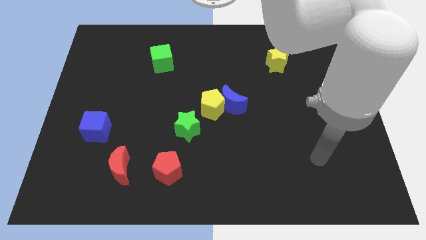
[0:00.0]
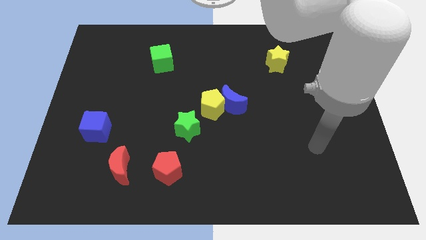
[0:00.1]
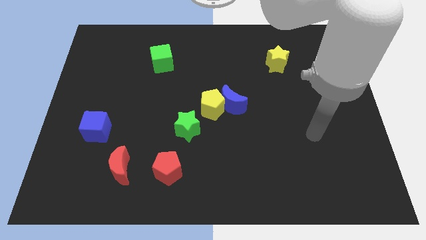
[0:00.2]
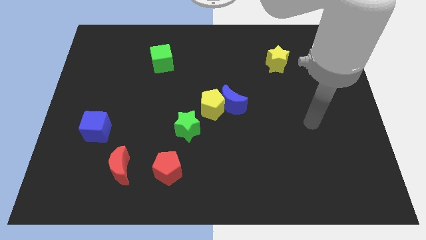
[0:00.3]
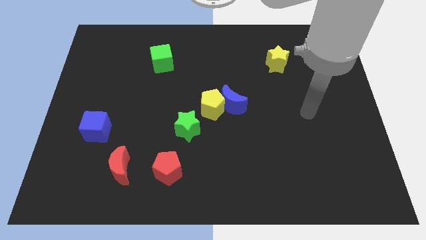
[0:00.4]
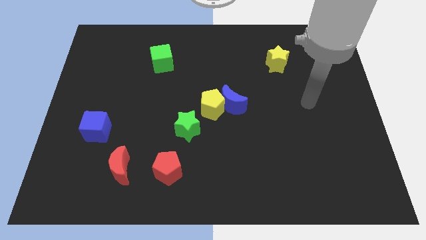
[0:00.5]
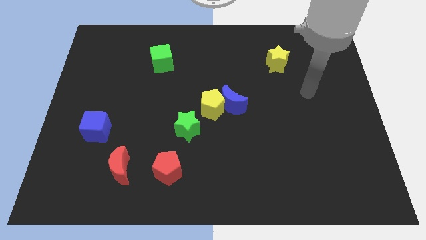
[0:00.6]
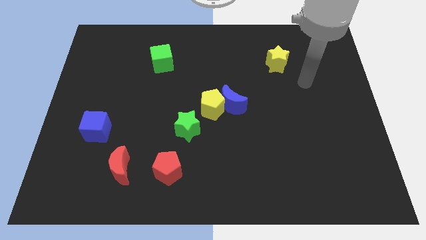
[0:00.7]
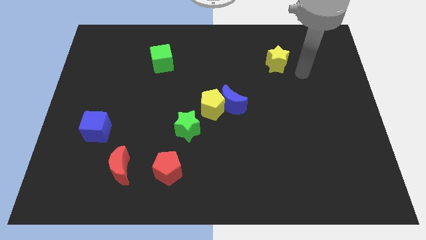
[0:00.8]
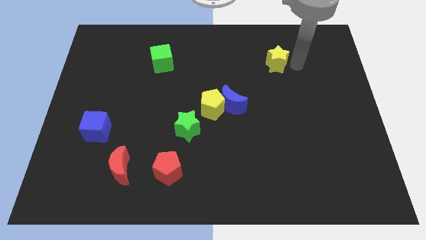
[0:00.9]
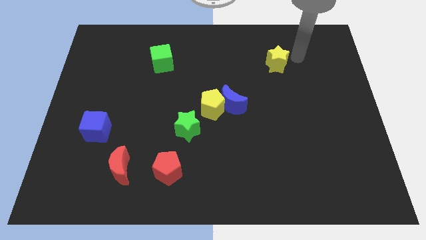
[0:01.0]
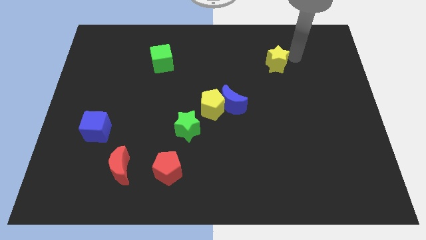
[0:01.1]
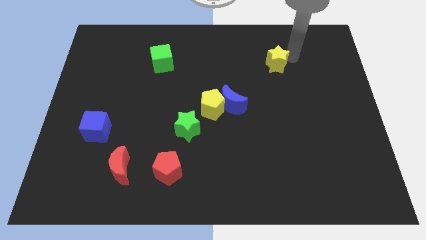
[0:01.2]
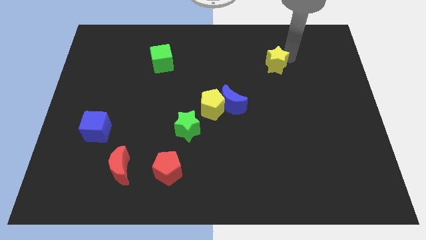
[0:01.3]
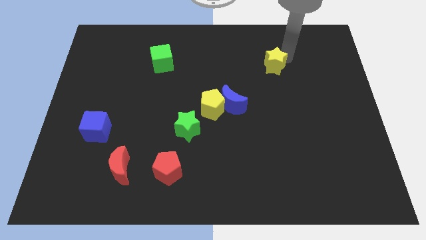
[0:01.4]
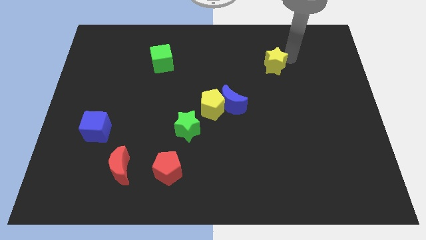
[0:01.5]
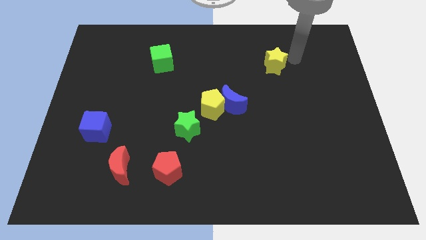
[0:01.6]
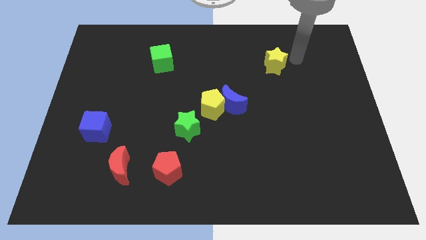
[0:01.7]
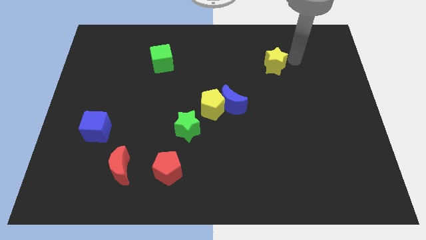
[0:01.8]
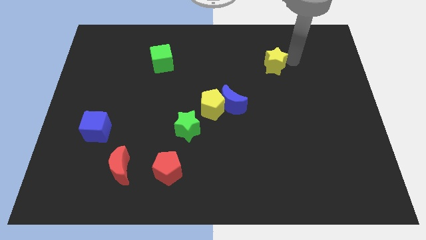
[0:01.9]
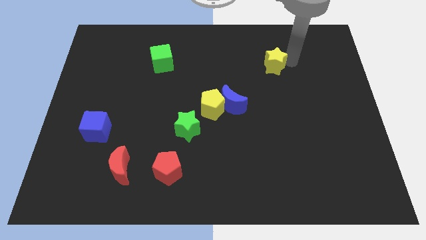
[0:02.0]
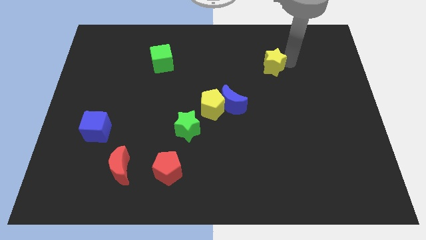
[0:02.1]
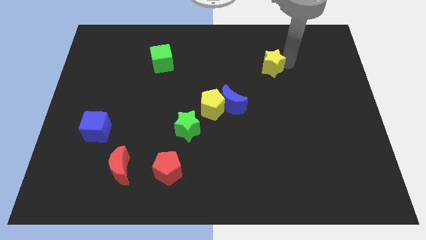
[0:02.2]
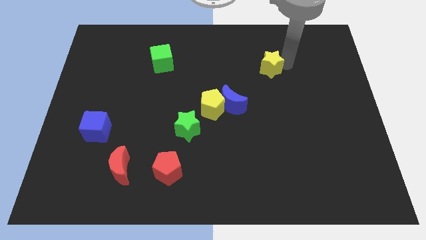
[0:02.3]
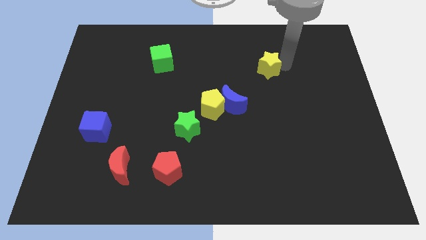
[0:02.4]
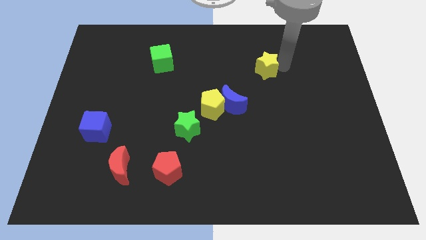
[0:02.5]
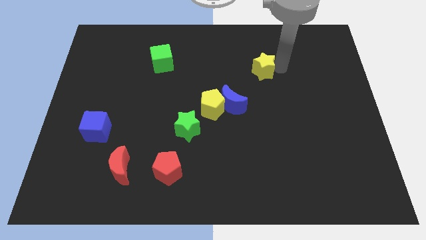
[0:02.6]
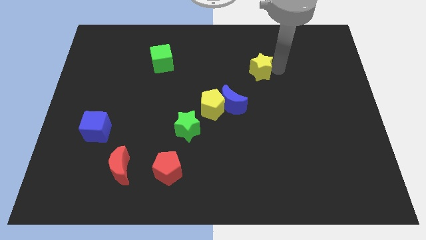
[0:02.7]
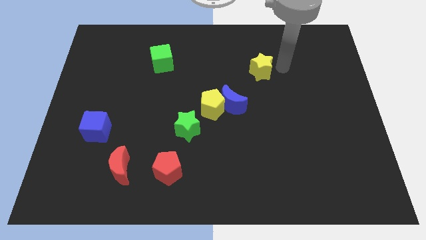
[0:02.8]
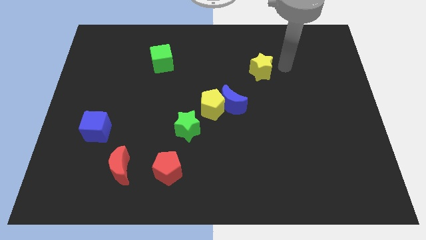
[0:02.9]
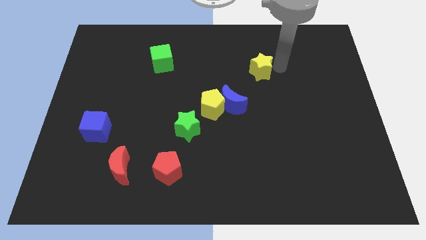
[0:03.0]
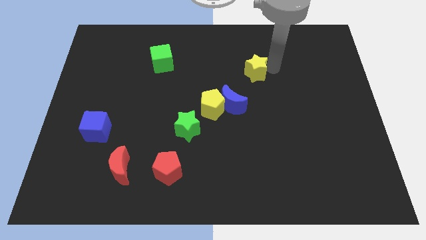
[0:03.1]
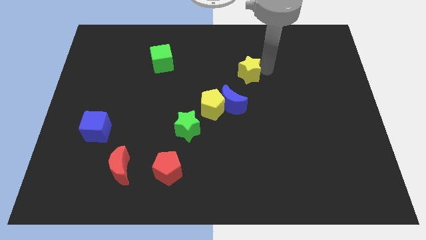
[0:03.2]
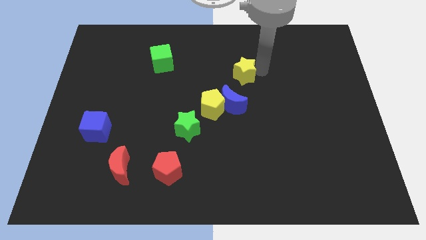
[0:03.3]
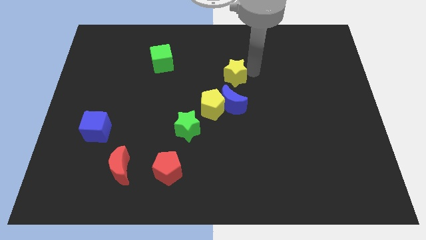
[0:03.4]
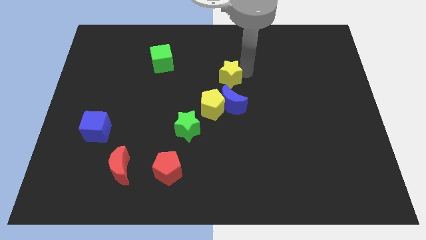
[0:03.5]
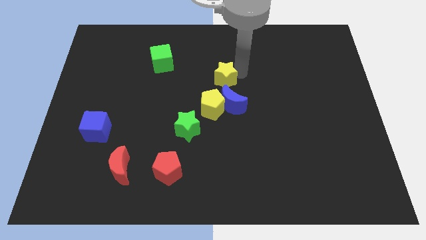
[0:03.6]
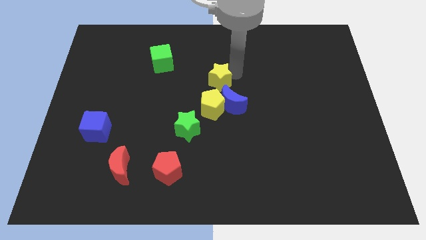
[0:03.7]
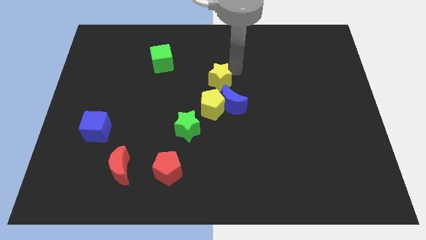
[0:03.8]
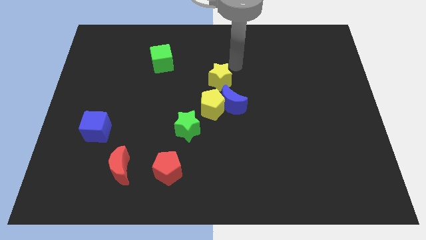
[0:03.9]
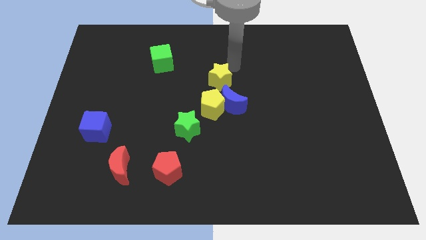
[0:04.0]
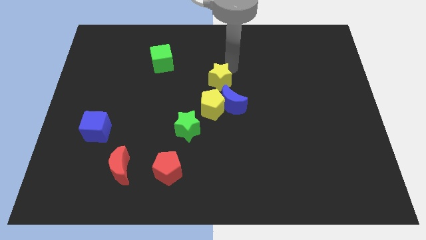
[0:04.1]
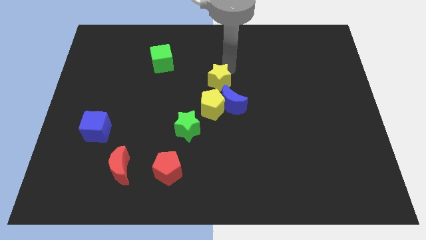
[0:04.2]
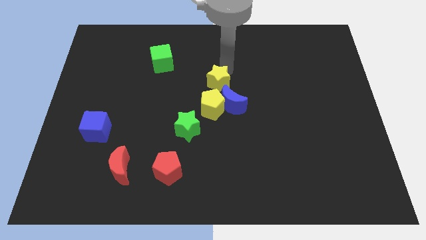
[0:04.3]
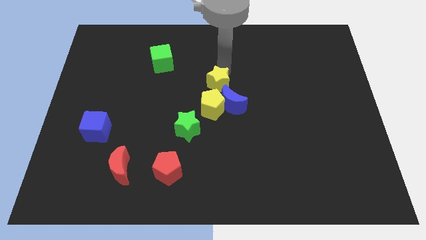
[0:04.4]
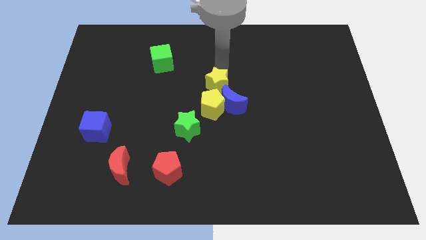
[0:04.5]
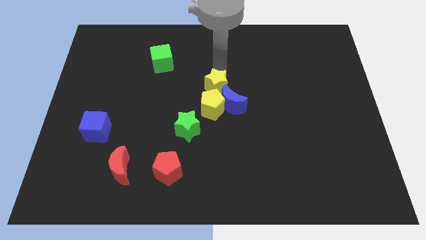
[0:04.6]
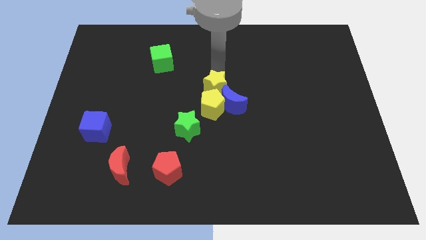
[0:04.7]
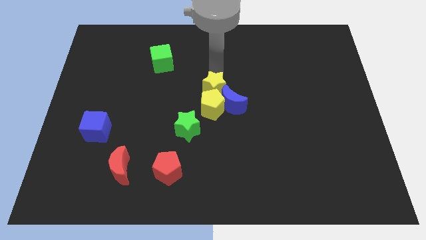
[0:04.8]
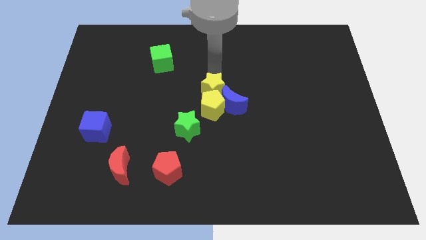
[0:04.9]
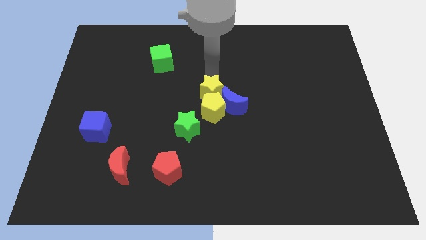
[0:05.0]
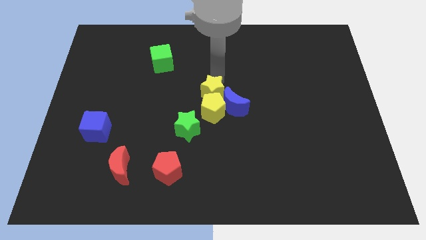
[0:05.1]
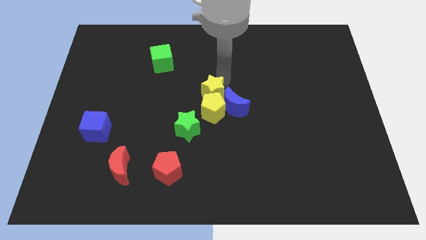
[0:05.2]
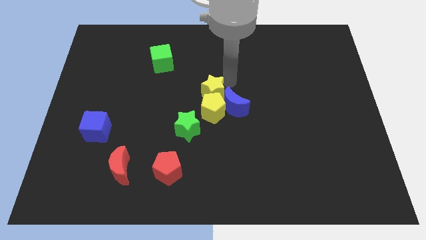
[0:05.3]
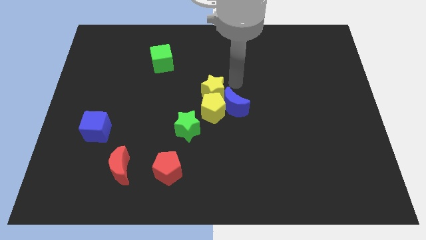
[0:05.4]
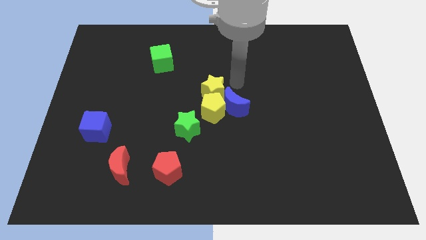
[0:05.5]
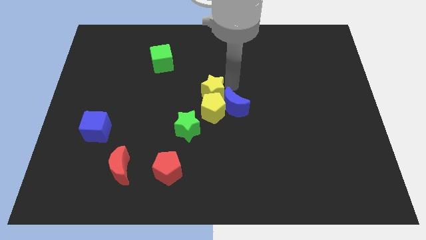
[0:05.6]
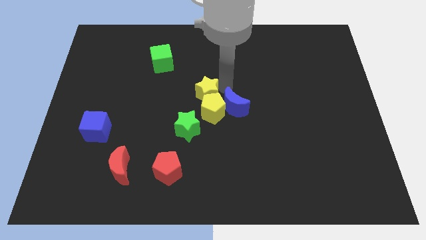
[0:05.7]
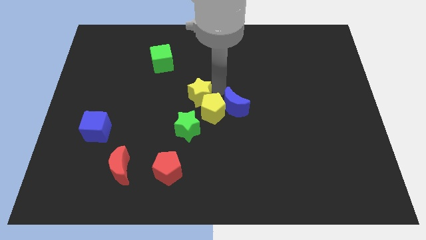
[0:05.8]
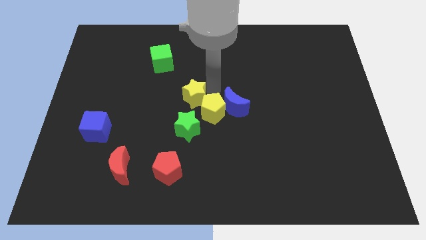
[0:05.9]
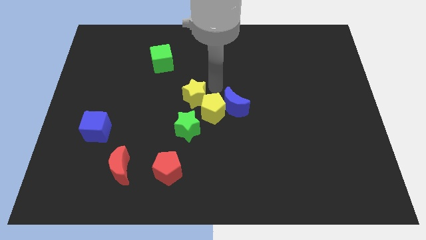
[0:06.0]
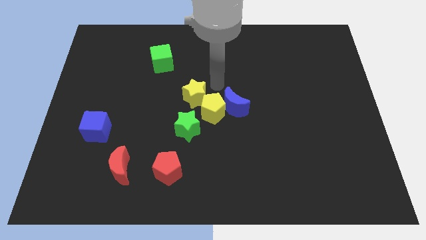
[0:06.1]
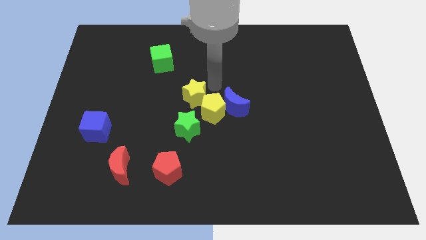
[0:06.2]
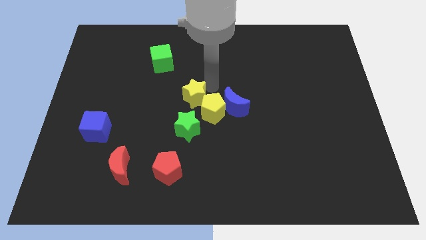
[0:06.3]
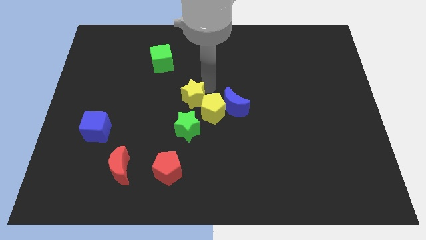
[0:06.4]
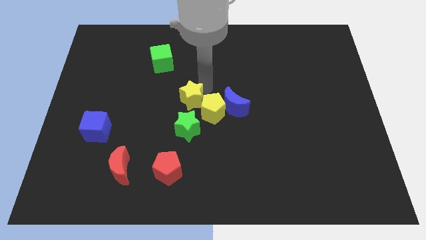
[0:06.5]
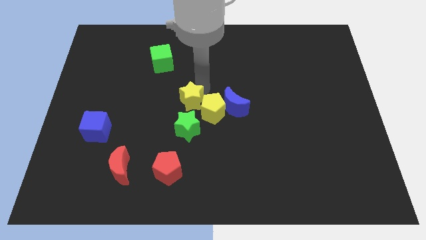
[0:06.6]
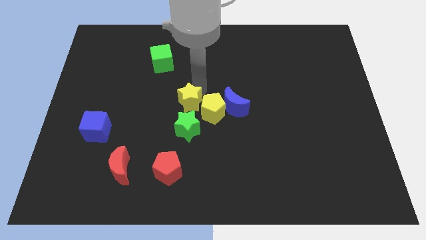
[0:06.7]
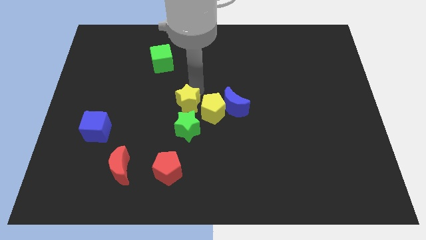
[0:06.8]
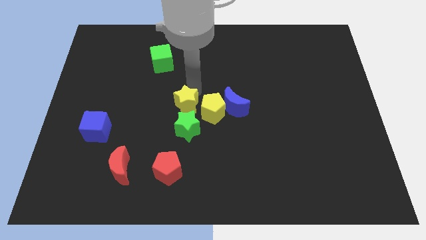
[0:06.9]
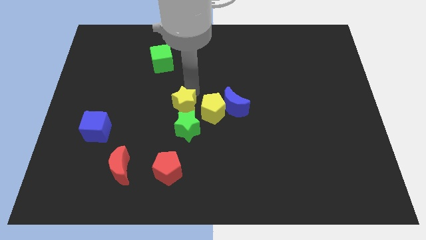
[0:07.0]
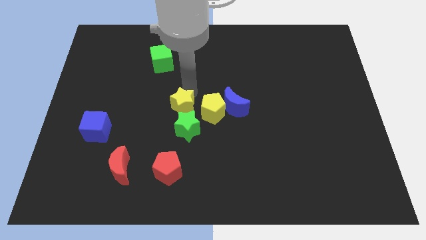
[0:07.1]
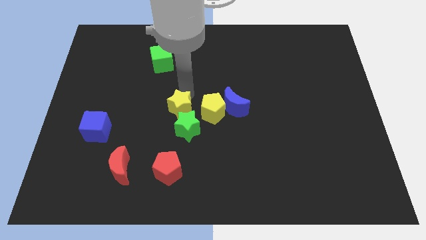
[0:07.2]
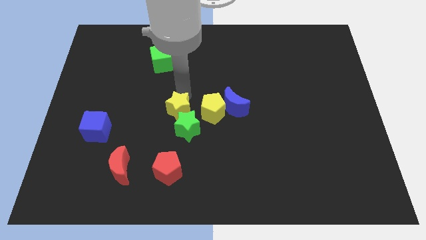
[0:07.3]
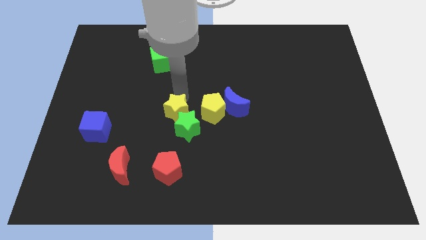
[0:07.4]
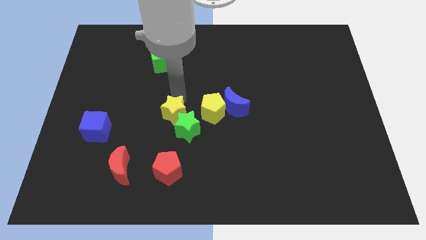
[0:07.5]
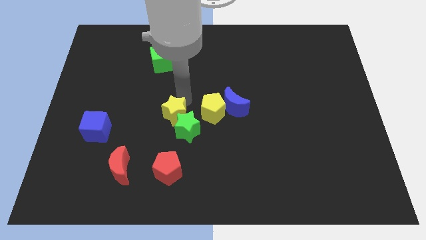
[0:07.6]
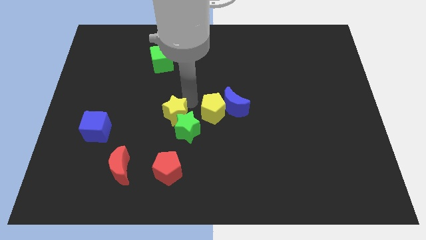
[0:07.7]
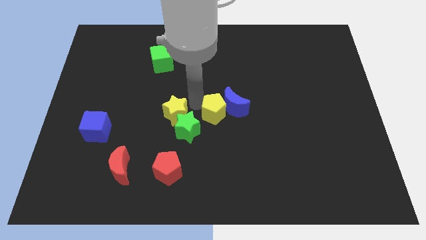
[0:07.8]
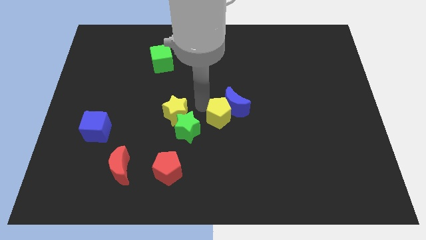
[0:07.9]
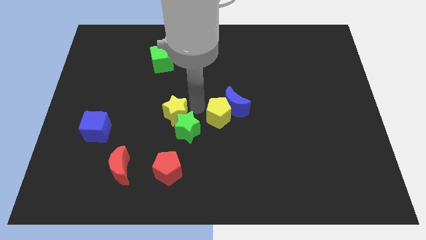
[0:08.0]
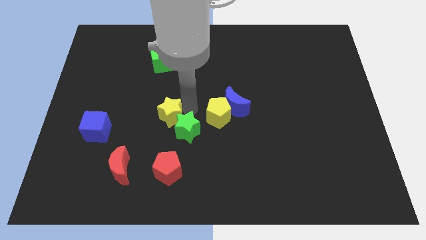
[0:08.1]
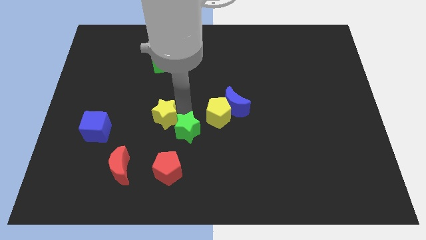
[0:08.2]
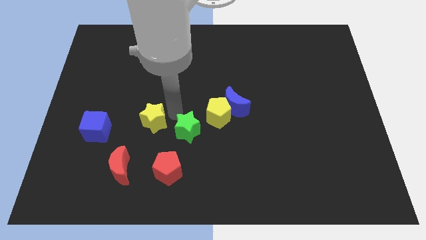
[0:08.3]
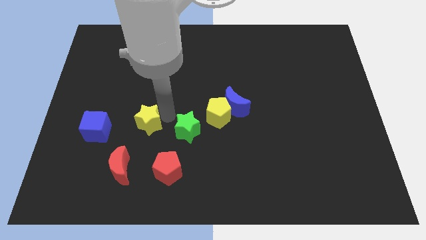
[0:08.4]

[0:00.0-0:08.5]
put the yellow star to the top side of the red moon
